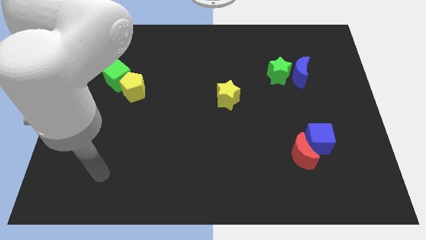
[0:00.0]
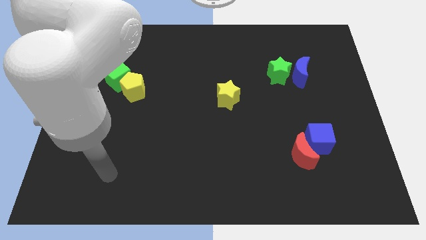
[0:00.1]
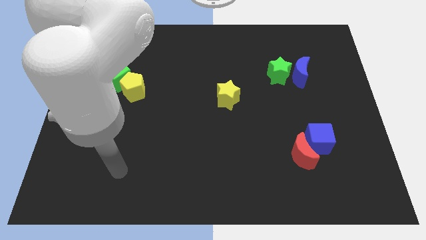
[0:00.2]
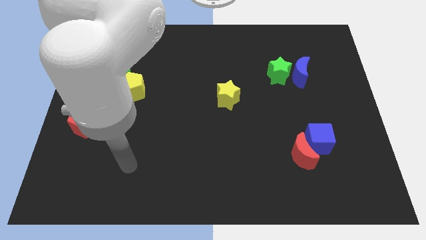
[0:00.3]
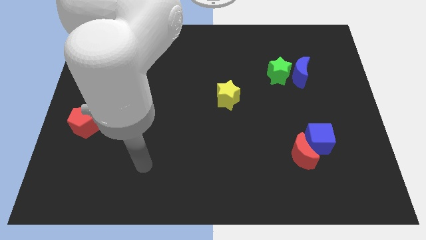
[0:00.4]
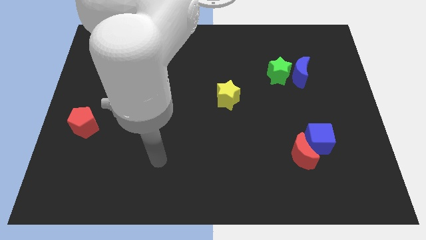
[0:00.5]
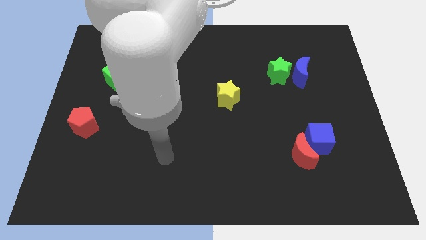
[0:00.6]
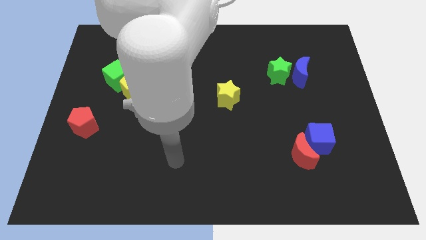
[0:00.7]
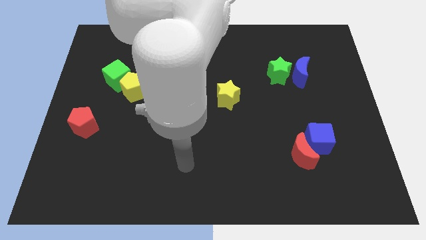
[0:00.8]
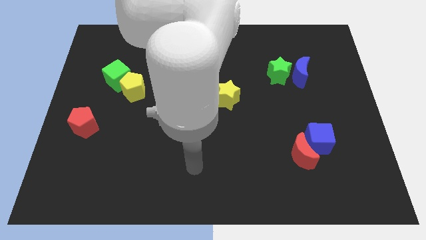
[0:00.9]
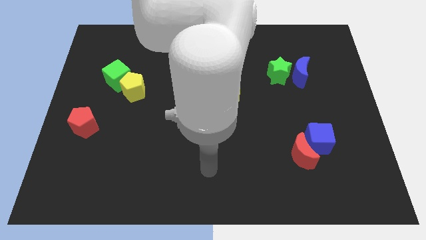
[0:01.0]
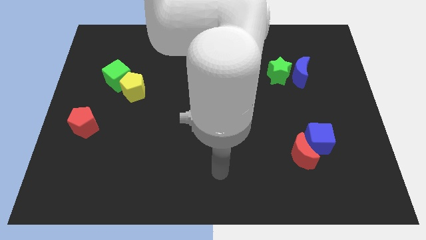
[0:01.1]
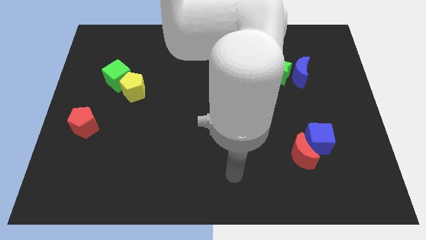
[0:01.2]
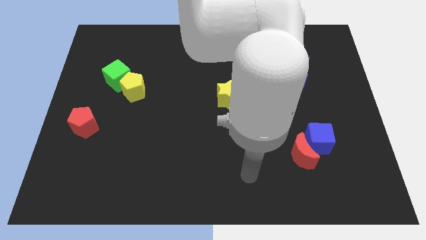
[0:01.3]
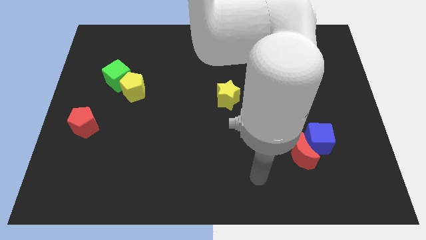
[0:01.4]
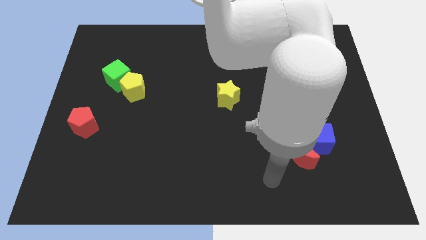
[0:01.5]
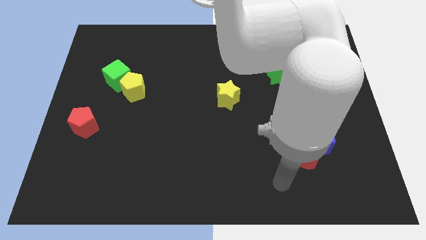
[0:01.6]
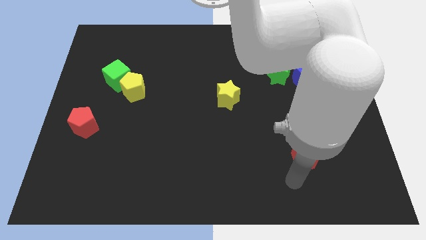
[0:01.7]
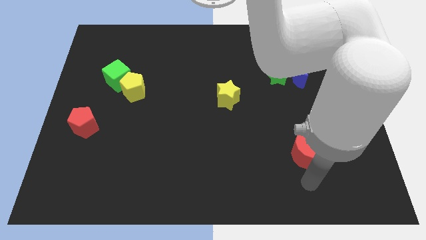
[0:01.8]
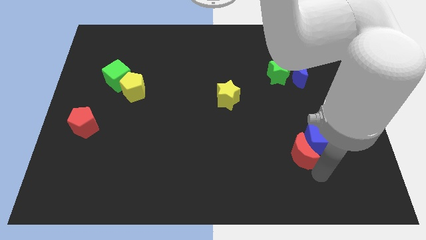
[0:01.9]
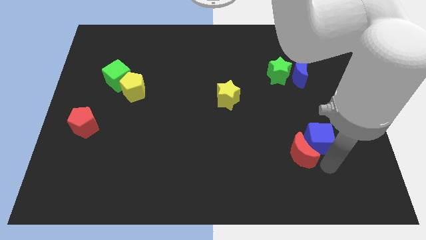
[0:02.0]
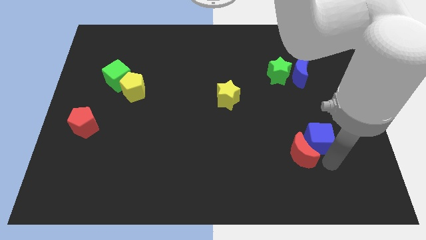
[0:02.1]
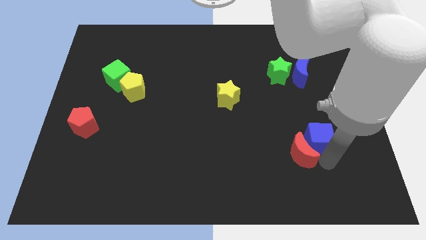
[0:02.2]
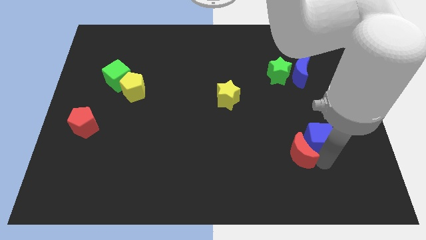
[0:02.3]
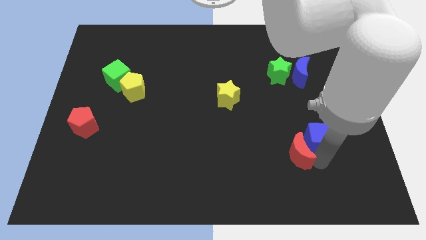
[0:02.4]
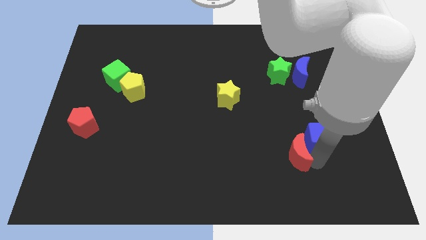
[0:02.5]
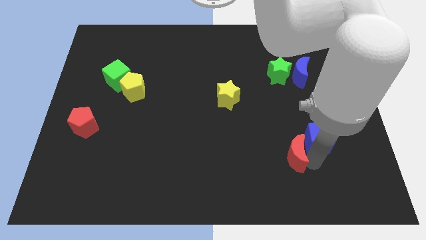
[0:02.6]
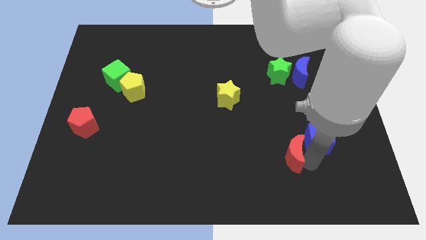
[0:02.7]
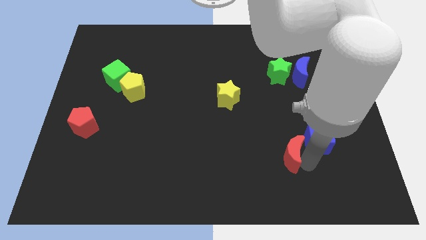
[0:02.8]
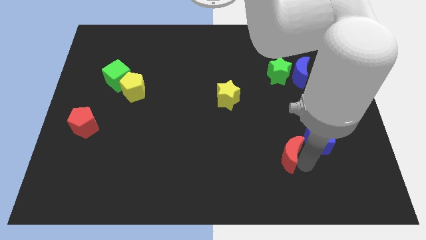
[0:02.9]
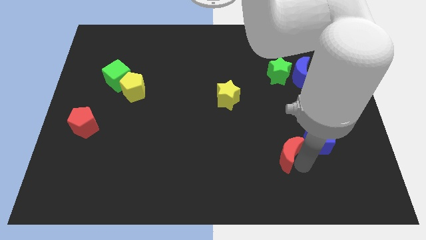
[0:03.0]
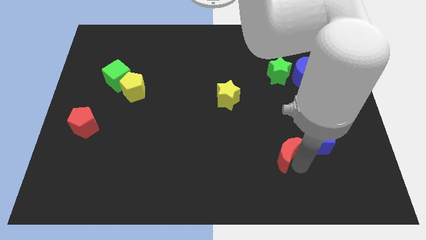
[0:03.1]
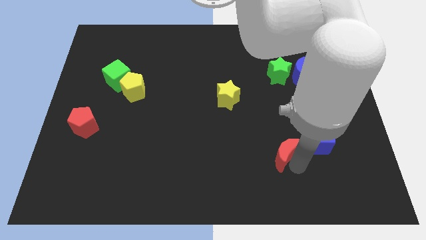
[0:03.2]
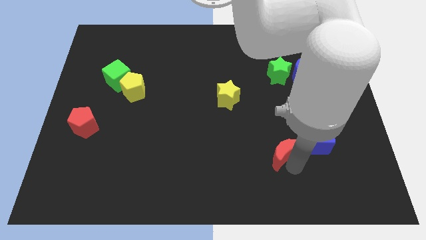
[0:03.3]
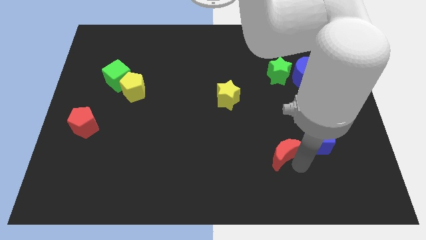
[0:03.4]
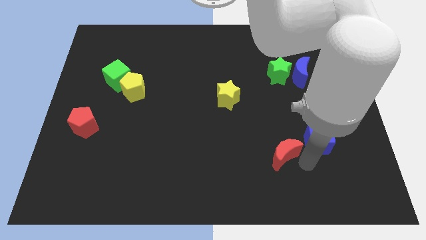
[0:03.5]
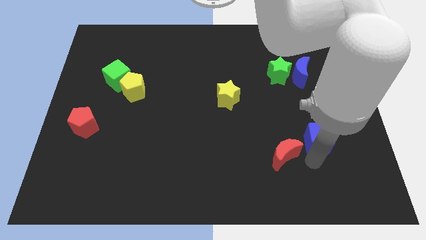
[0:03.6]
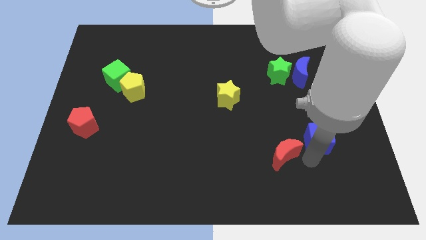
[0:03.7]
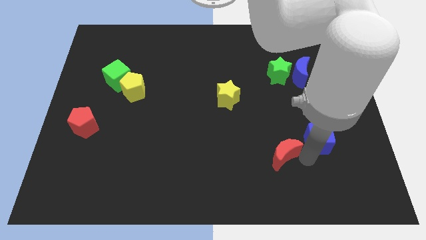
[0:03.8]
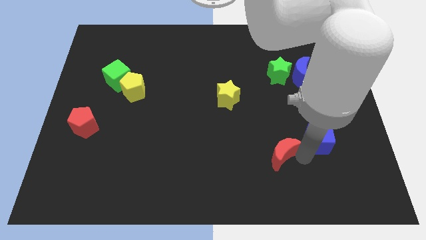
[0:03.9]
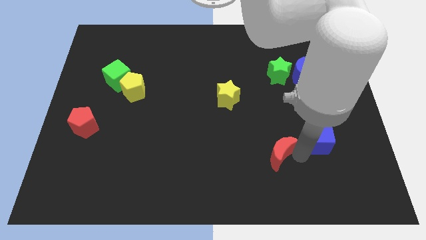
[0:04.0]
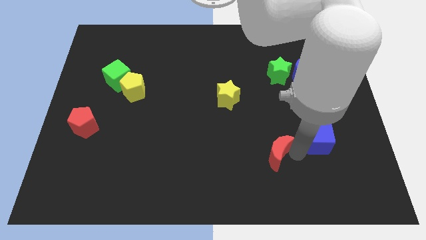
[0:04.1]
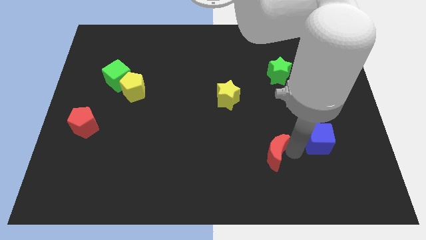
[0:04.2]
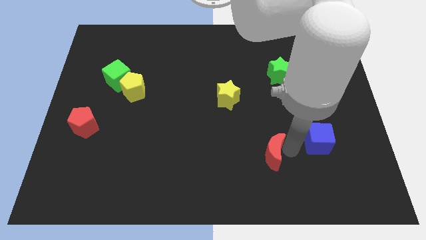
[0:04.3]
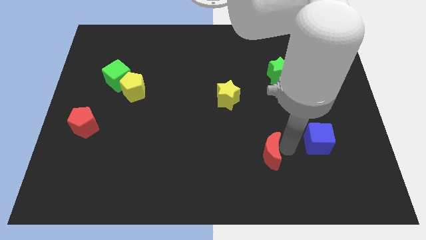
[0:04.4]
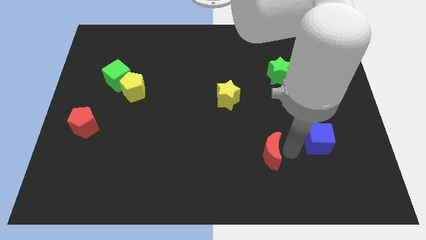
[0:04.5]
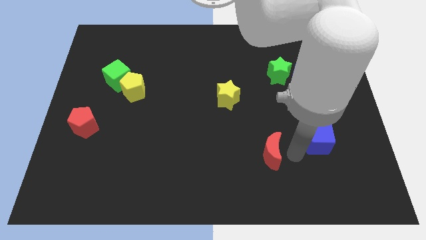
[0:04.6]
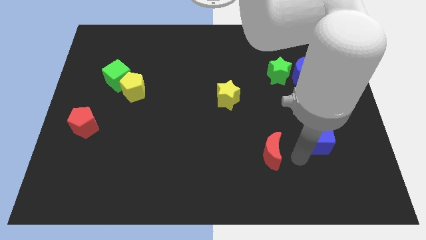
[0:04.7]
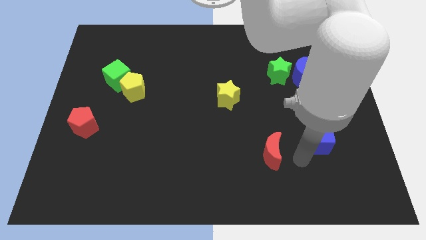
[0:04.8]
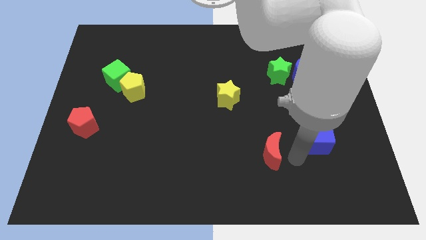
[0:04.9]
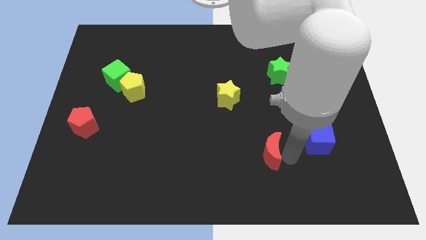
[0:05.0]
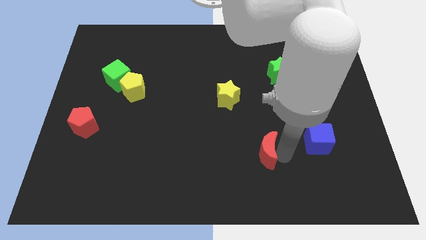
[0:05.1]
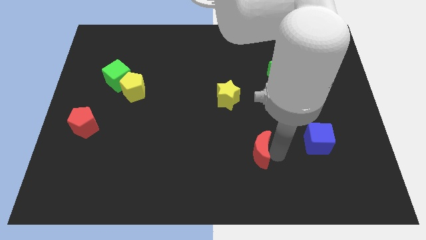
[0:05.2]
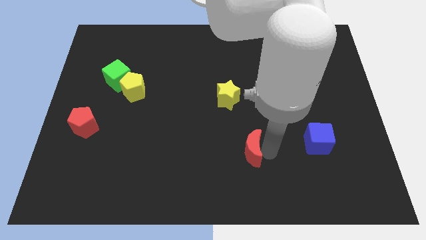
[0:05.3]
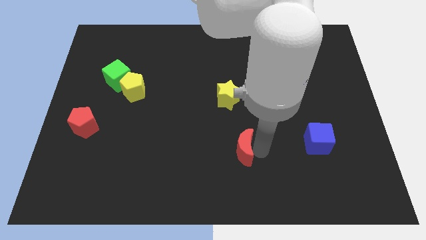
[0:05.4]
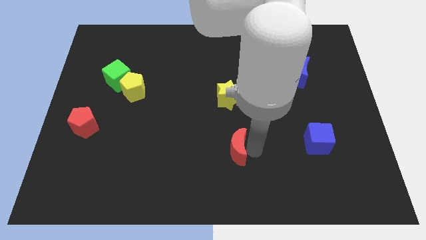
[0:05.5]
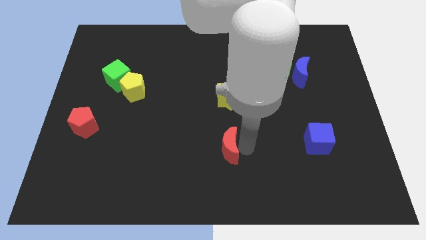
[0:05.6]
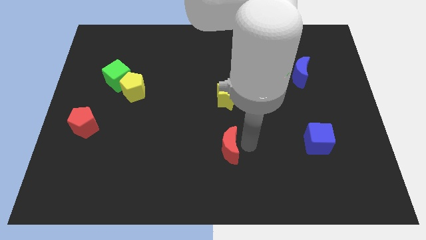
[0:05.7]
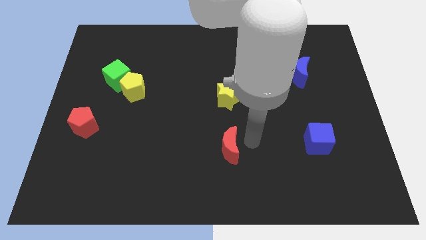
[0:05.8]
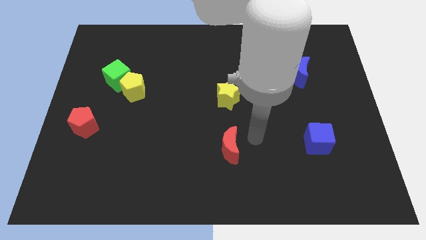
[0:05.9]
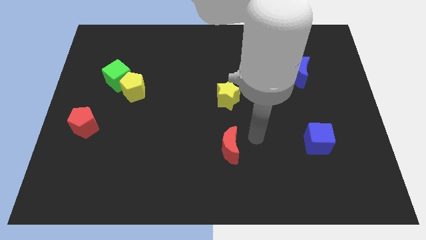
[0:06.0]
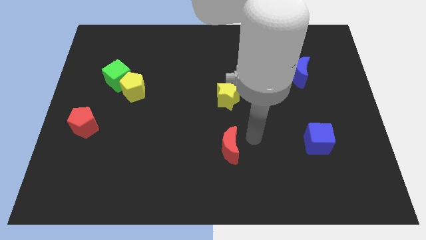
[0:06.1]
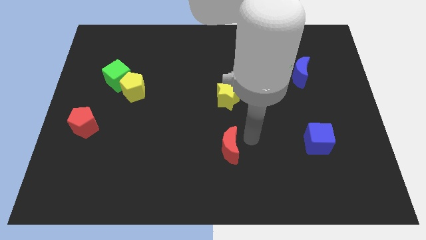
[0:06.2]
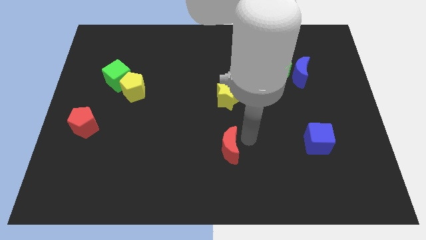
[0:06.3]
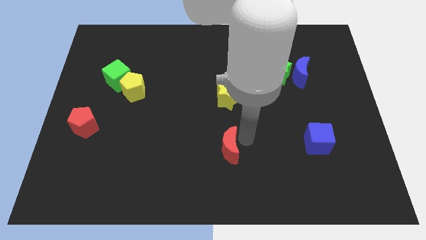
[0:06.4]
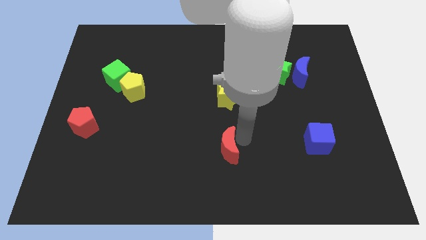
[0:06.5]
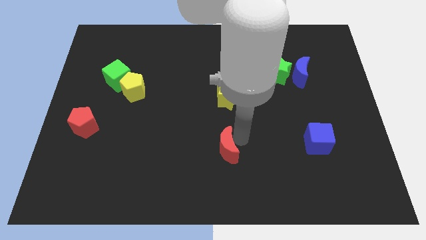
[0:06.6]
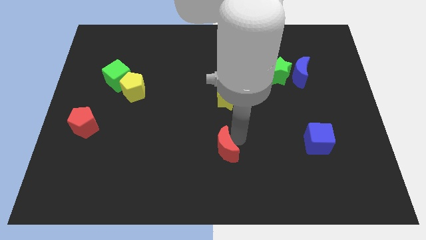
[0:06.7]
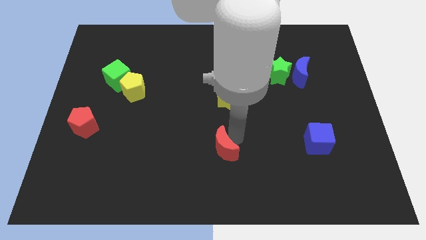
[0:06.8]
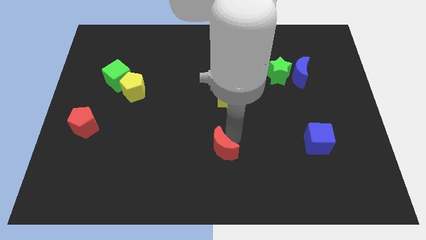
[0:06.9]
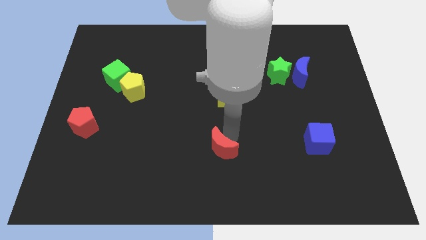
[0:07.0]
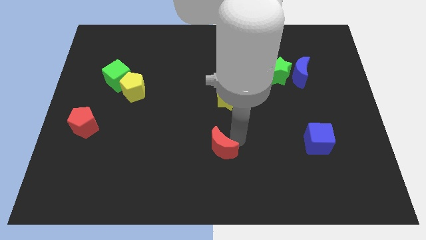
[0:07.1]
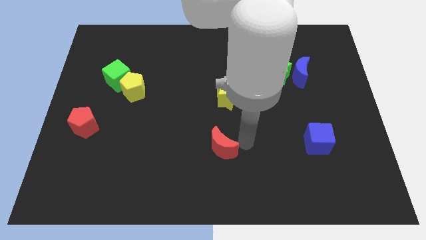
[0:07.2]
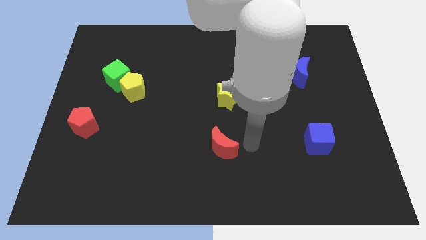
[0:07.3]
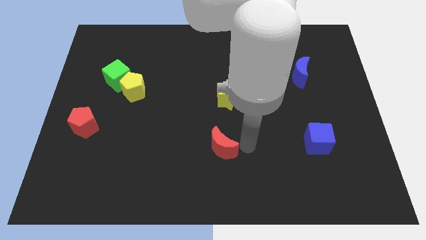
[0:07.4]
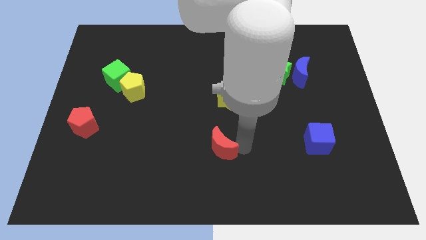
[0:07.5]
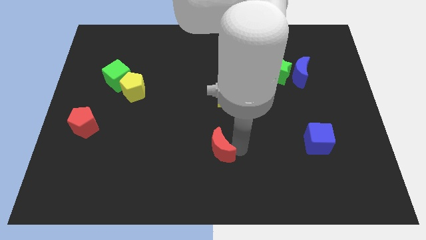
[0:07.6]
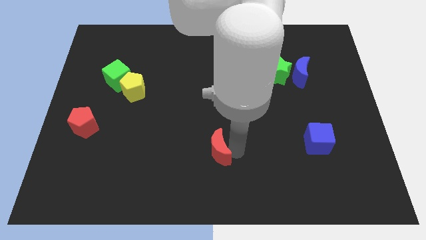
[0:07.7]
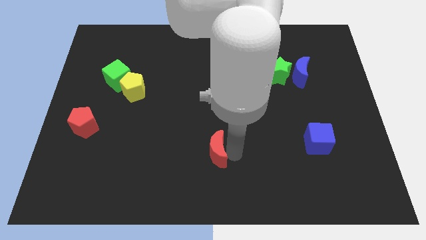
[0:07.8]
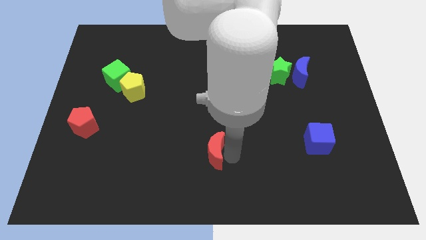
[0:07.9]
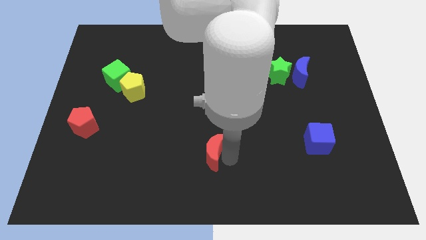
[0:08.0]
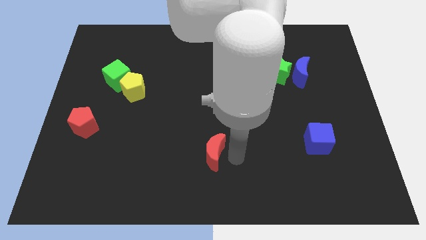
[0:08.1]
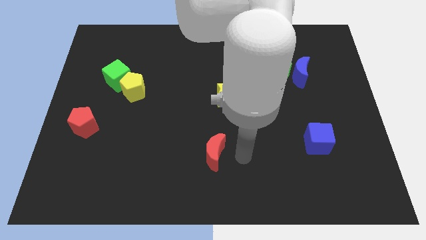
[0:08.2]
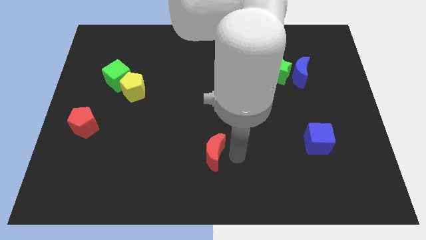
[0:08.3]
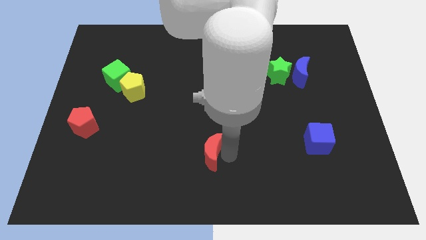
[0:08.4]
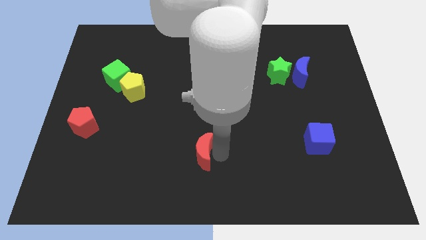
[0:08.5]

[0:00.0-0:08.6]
push the red moon left
